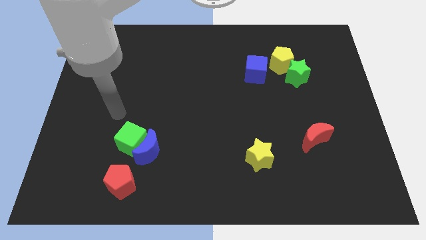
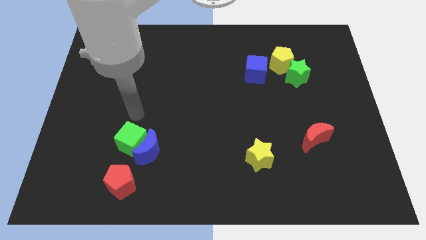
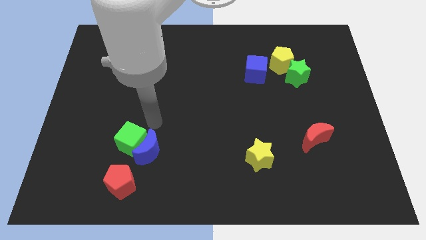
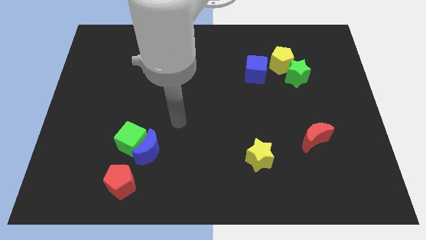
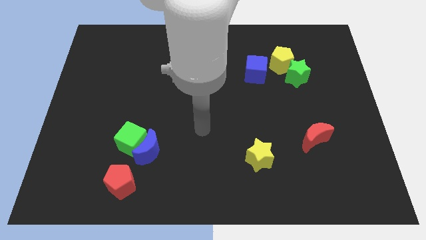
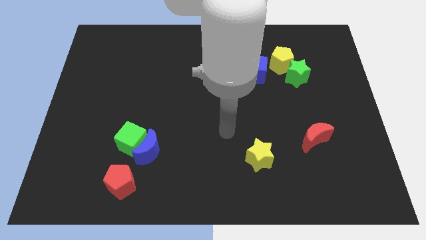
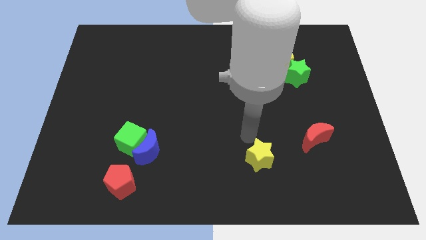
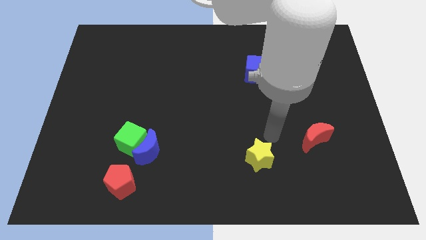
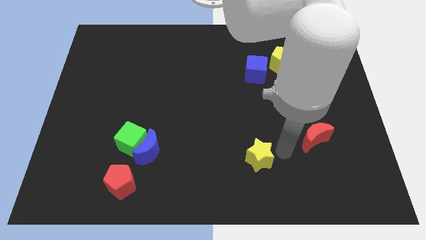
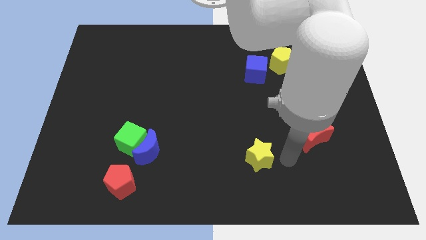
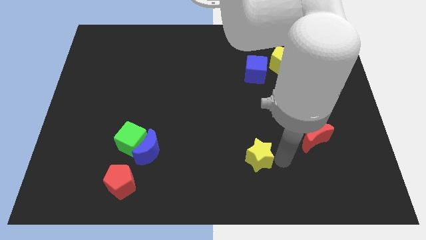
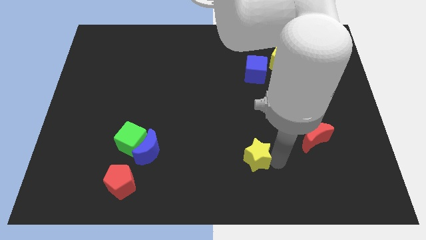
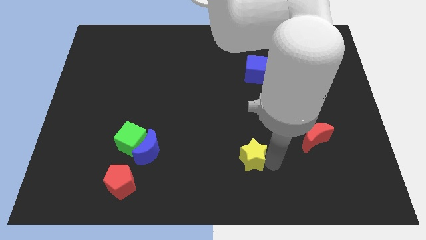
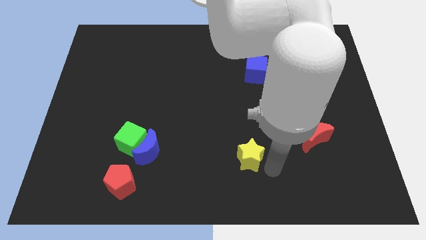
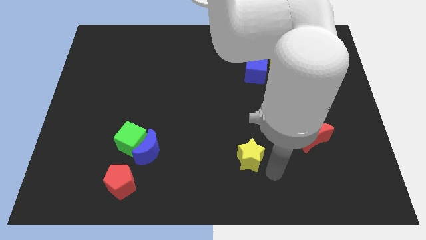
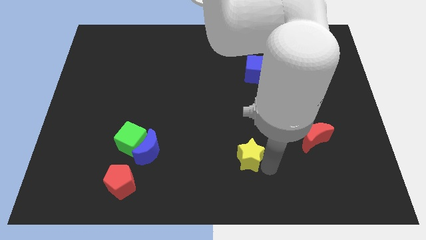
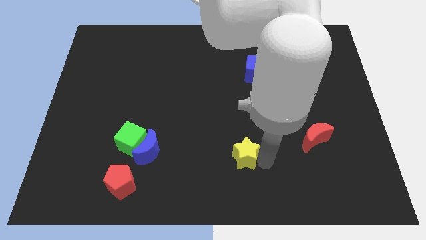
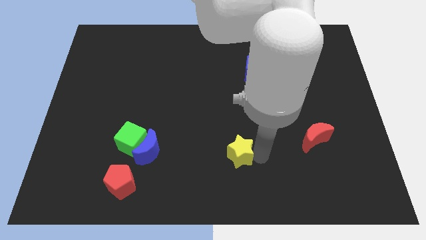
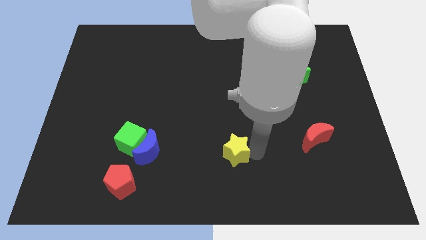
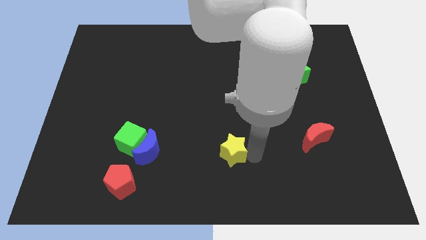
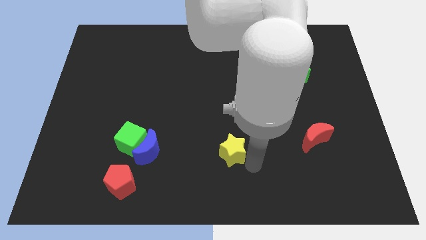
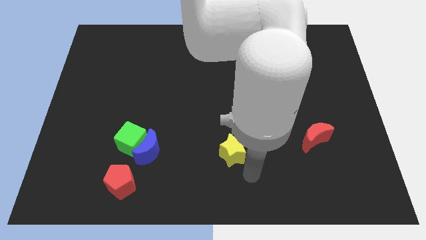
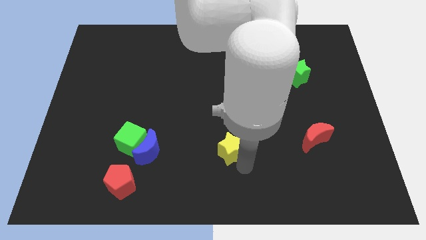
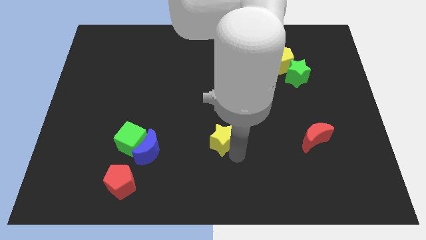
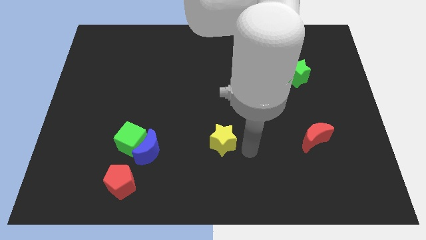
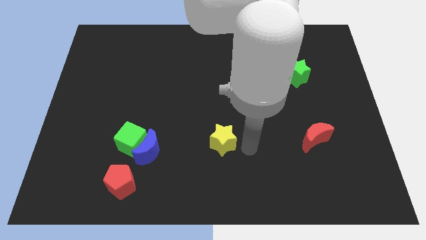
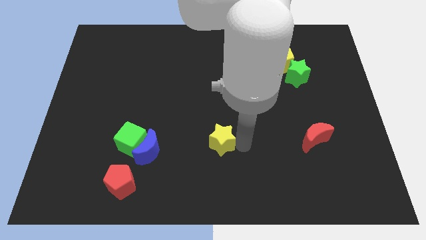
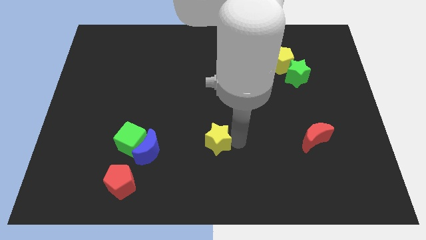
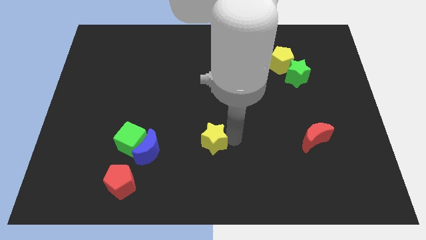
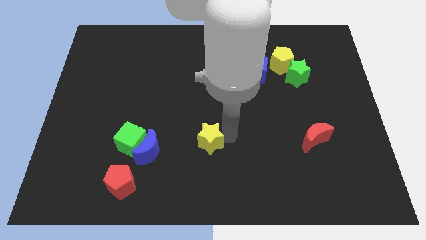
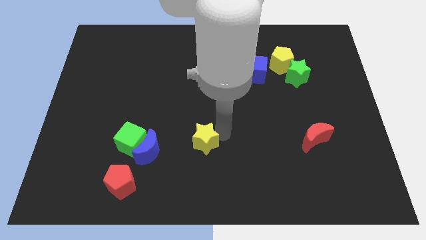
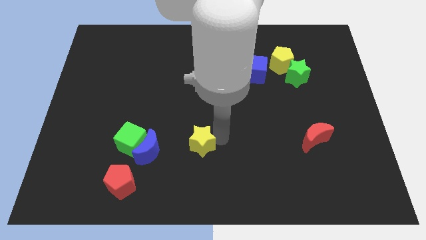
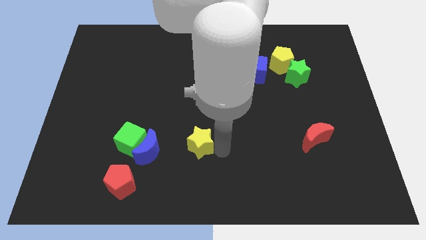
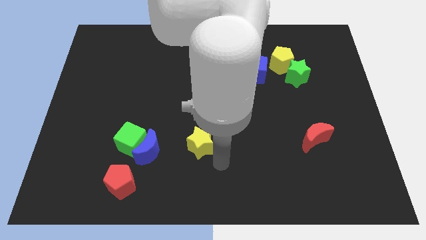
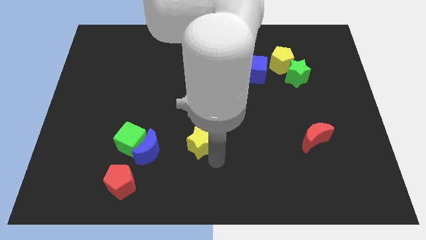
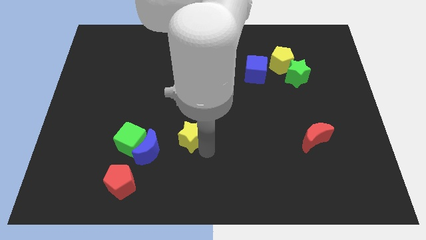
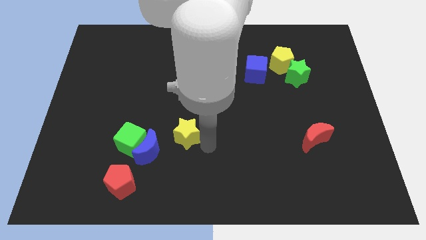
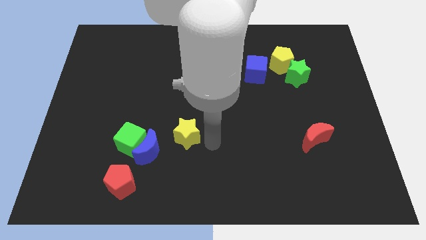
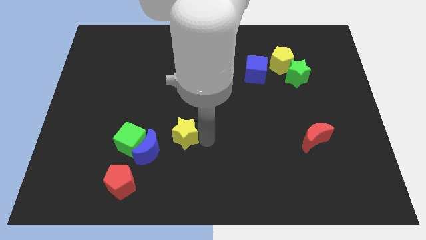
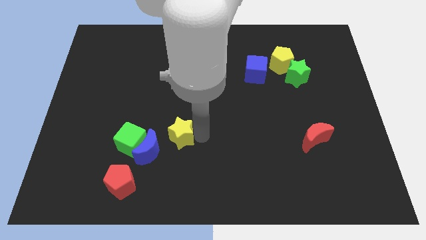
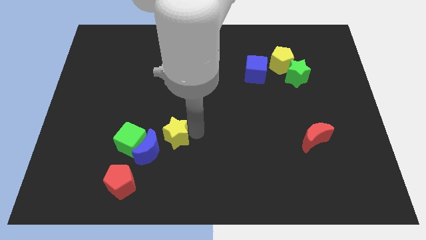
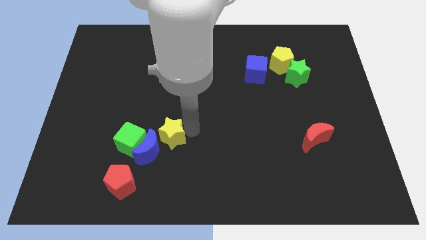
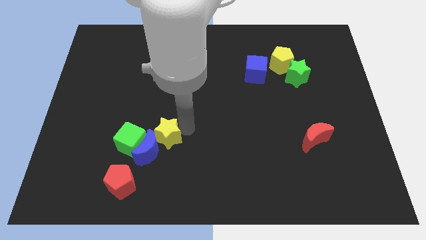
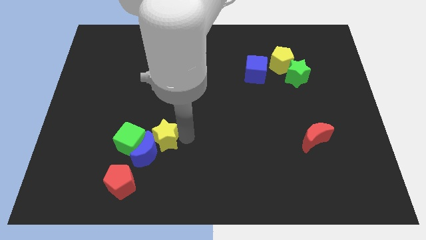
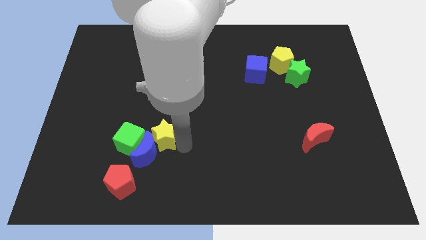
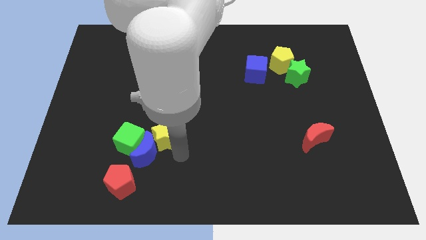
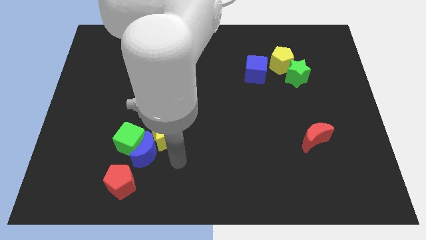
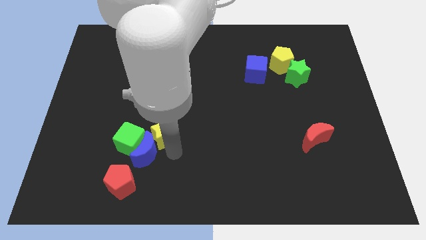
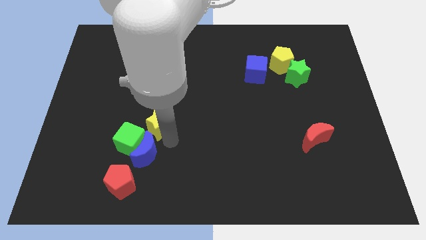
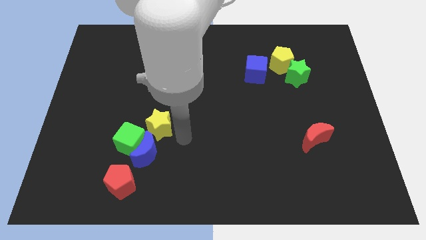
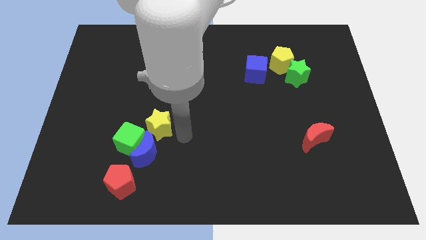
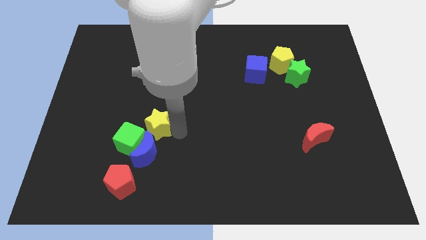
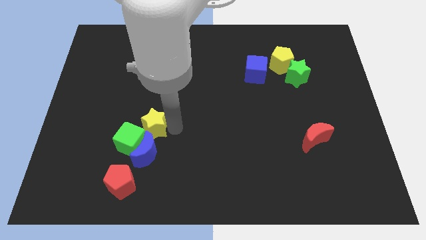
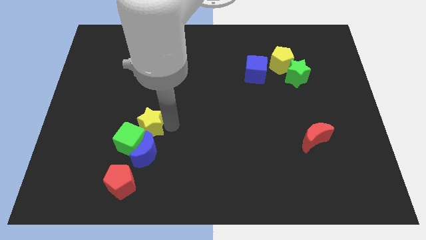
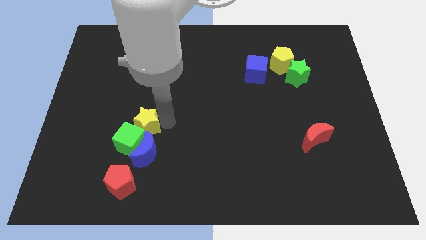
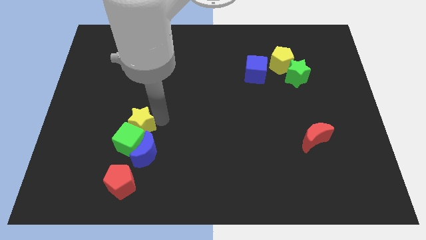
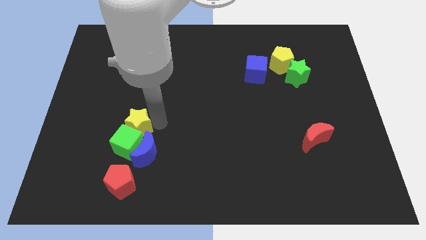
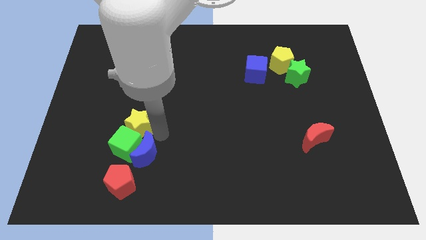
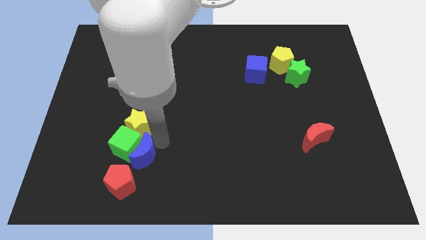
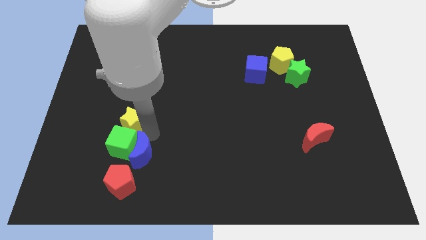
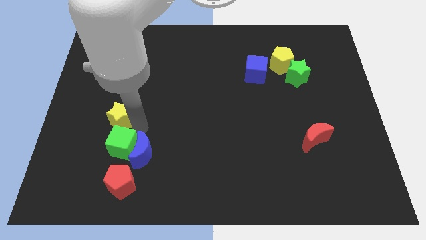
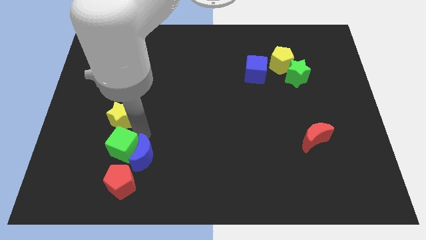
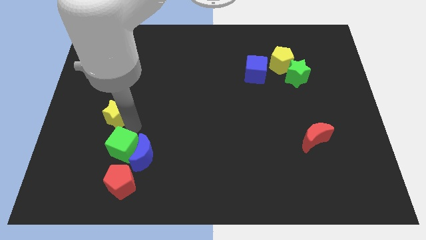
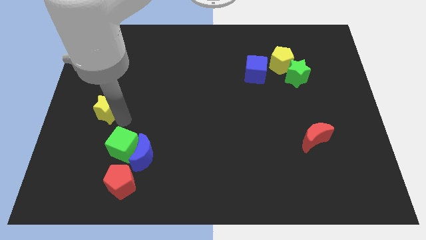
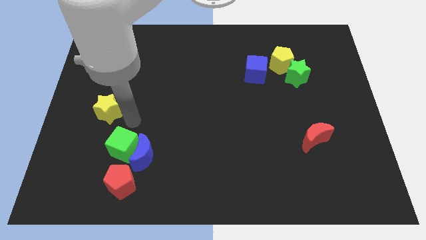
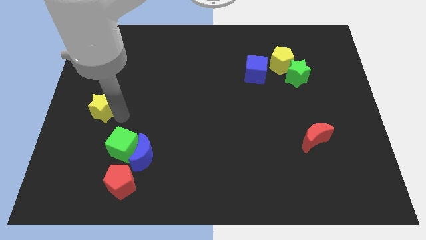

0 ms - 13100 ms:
move the yellow star to the center left
